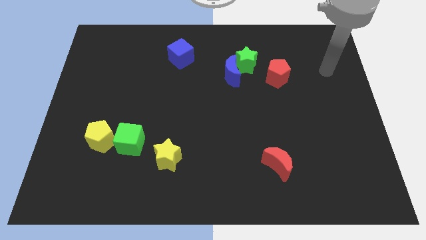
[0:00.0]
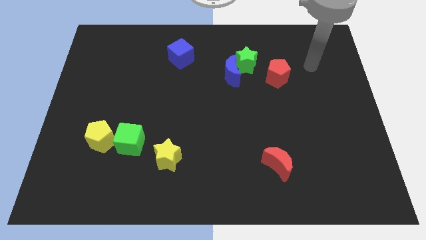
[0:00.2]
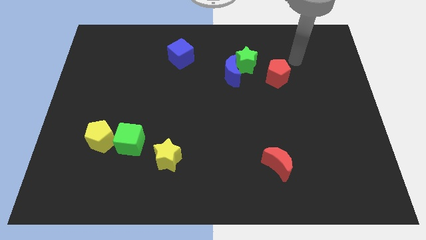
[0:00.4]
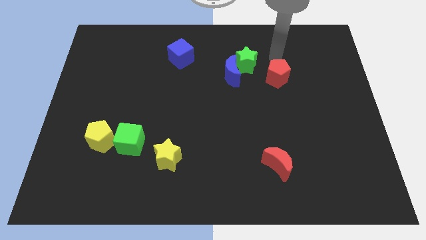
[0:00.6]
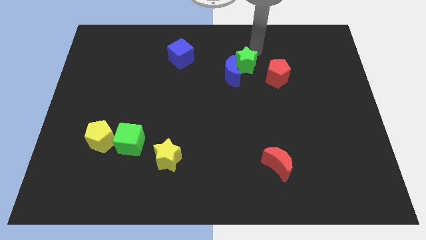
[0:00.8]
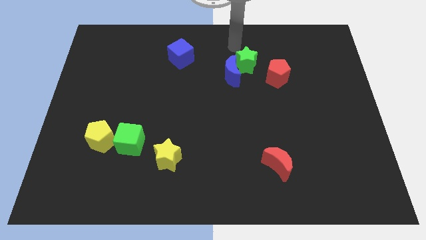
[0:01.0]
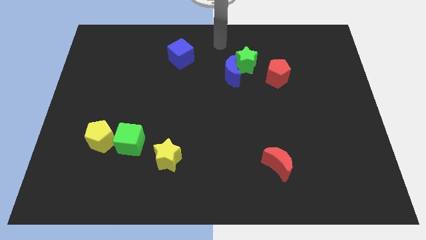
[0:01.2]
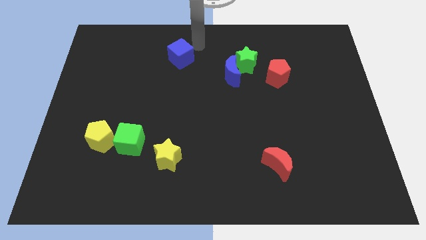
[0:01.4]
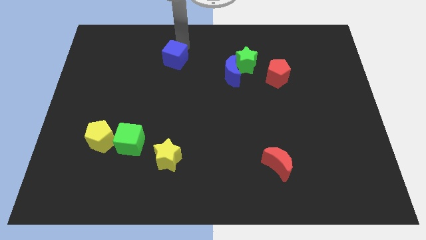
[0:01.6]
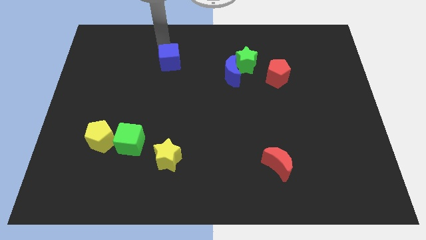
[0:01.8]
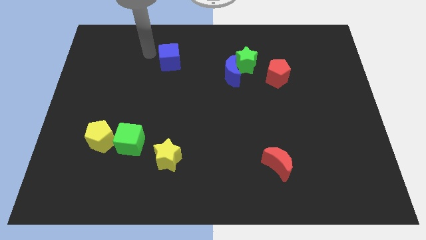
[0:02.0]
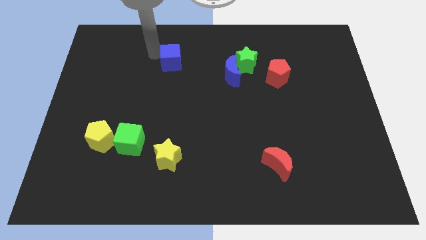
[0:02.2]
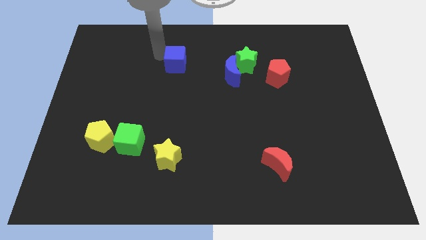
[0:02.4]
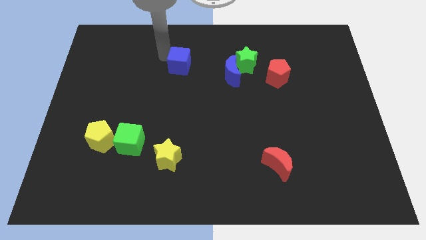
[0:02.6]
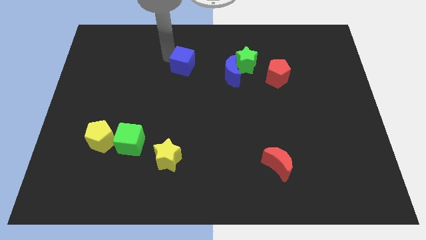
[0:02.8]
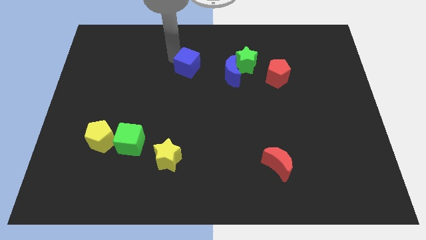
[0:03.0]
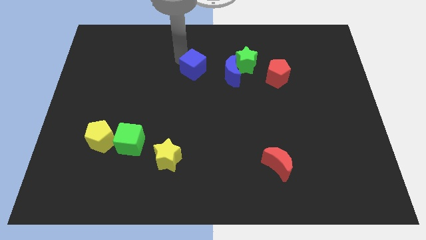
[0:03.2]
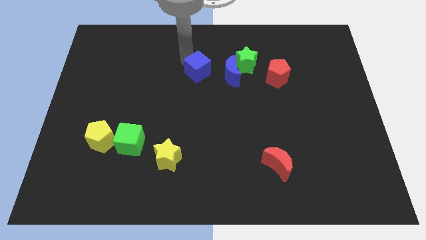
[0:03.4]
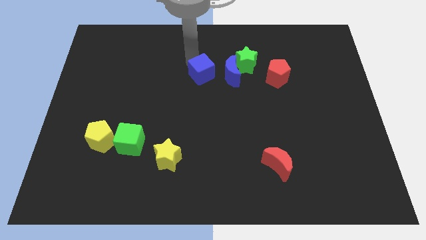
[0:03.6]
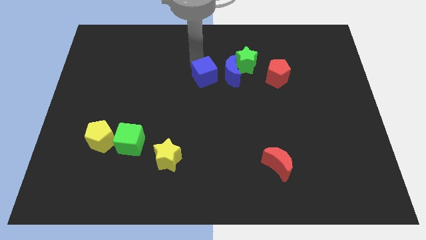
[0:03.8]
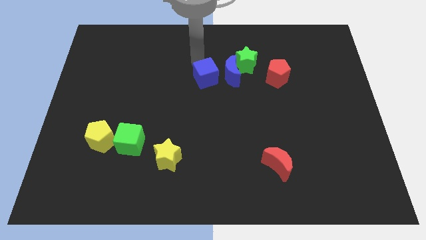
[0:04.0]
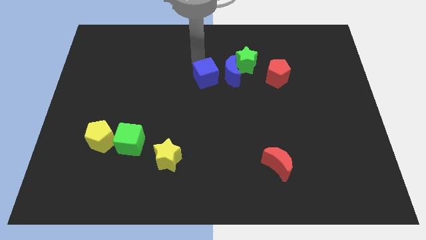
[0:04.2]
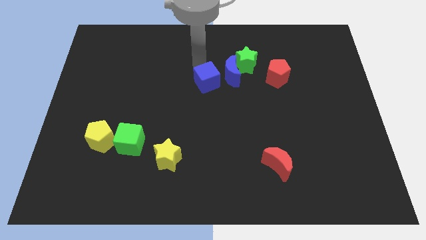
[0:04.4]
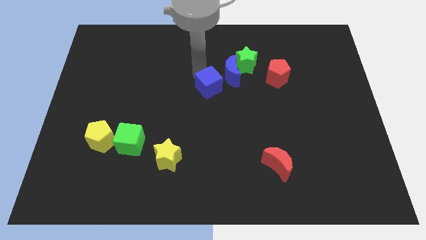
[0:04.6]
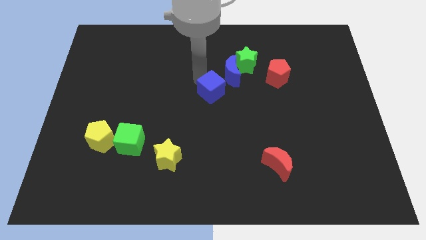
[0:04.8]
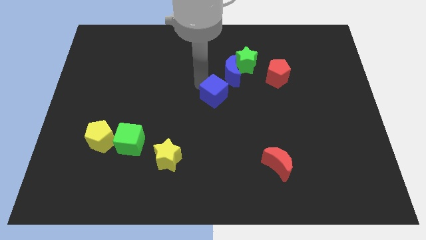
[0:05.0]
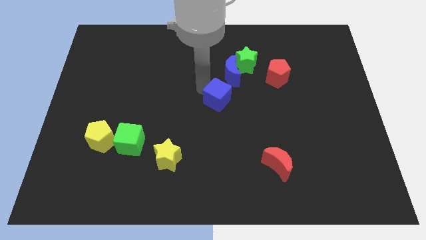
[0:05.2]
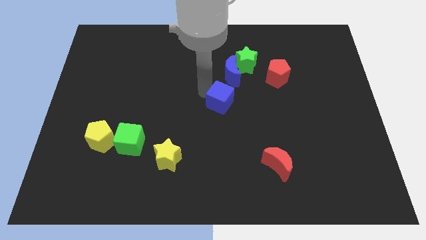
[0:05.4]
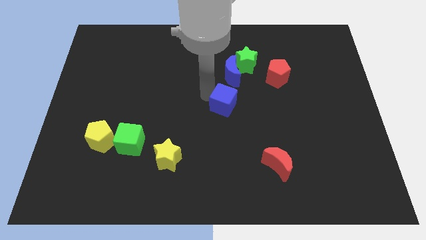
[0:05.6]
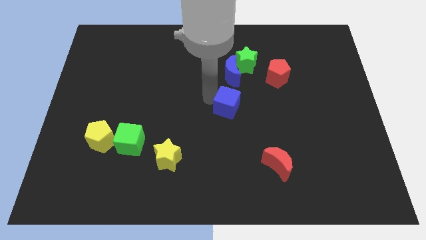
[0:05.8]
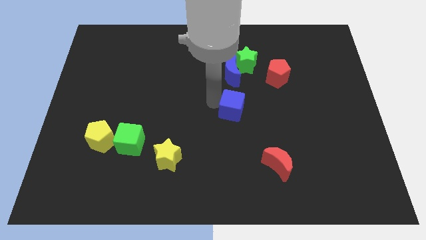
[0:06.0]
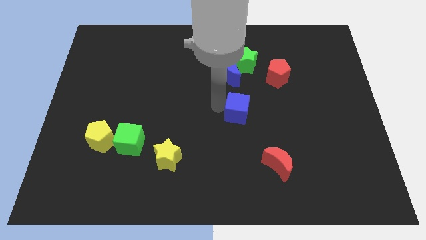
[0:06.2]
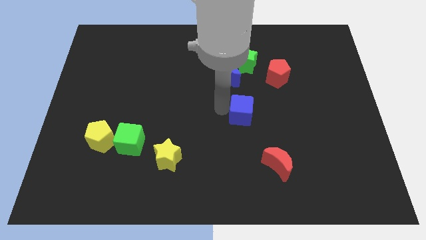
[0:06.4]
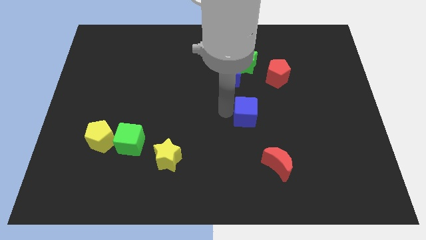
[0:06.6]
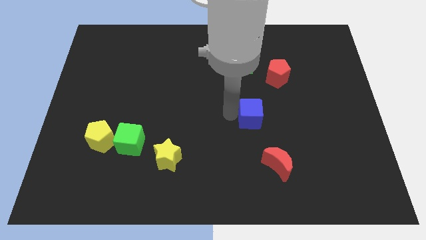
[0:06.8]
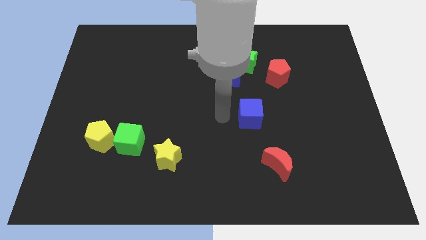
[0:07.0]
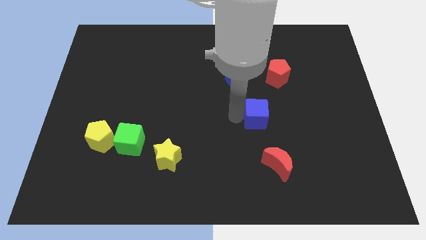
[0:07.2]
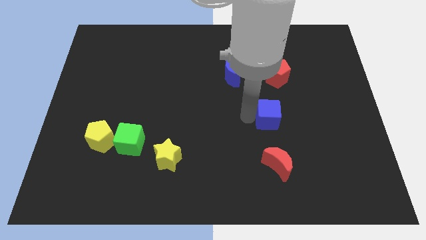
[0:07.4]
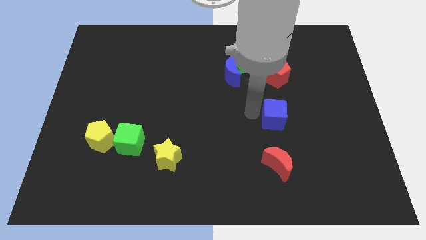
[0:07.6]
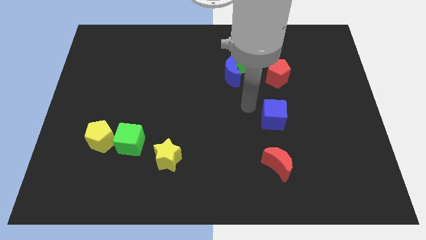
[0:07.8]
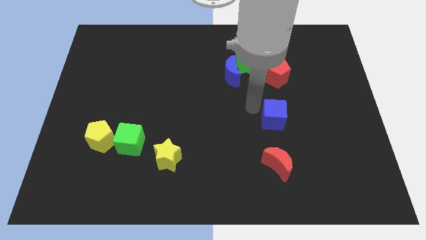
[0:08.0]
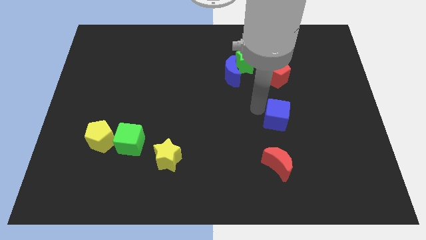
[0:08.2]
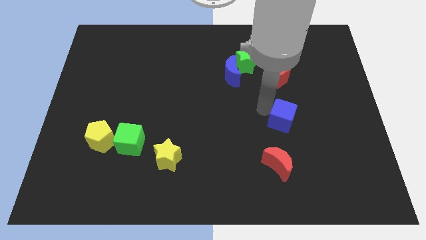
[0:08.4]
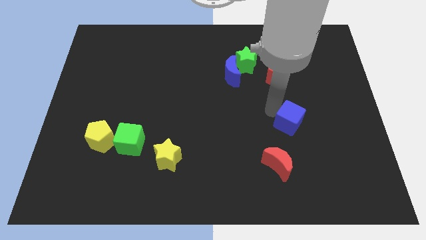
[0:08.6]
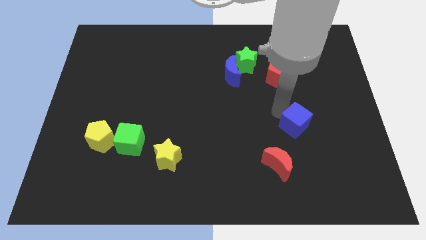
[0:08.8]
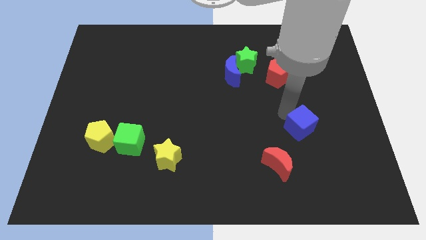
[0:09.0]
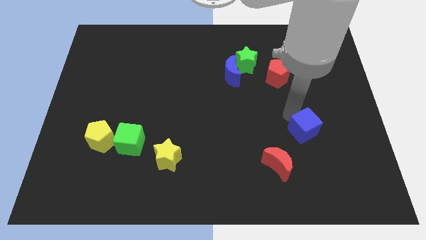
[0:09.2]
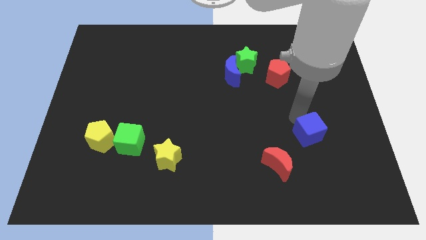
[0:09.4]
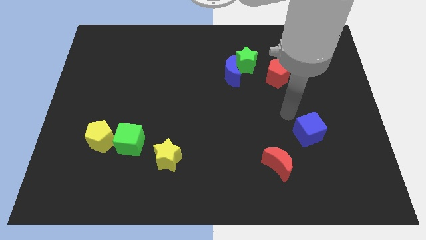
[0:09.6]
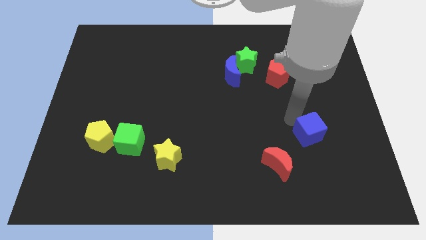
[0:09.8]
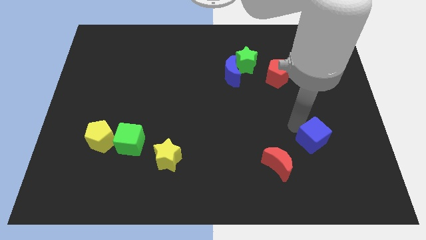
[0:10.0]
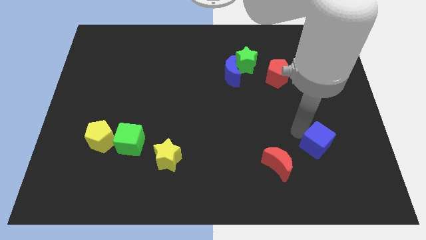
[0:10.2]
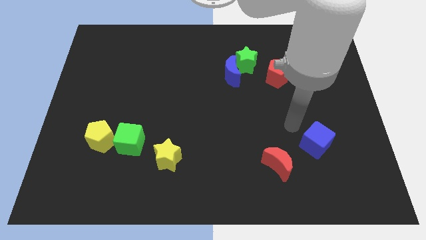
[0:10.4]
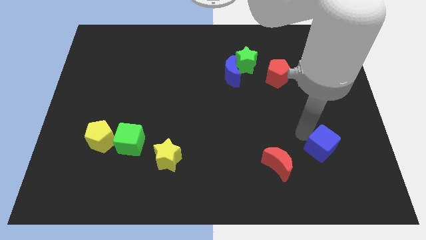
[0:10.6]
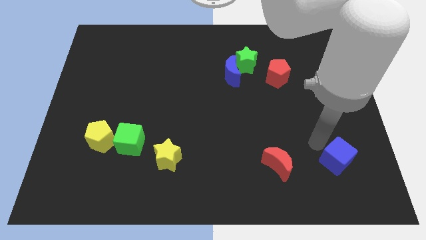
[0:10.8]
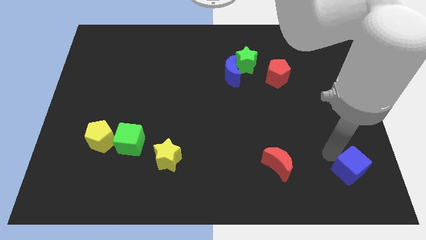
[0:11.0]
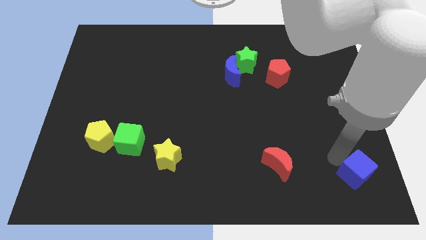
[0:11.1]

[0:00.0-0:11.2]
put the blue cube to the bottom right
